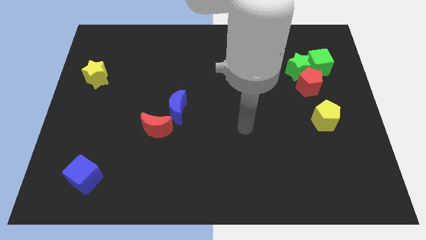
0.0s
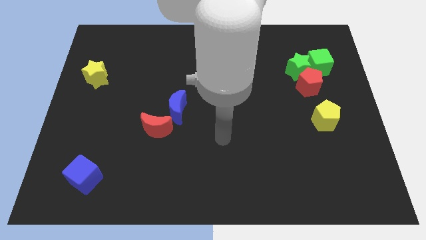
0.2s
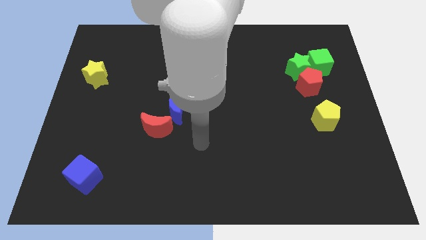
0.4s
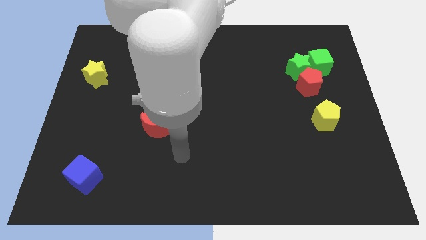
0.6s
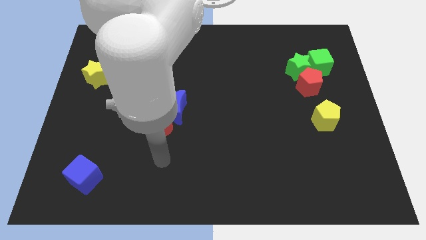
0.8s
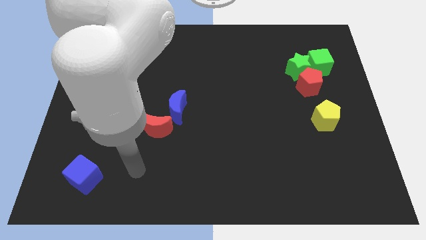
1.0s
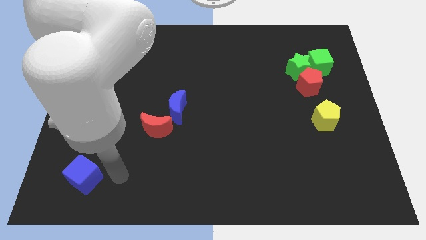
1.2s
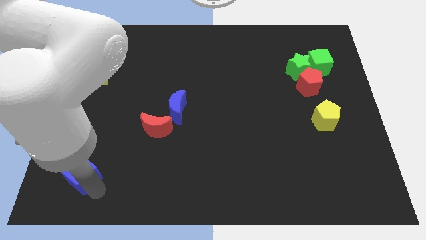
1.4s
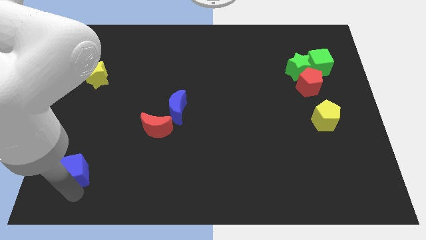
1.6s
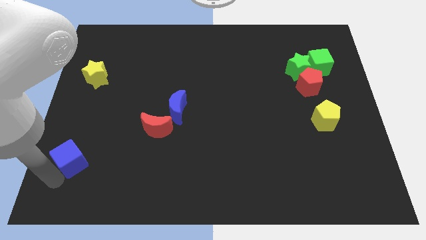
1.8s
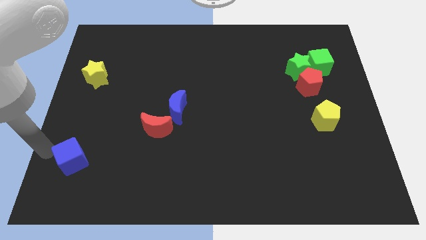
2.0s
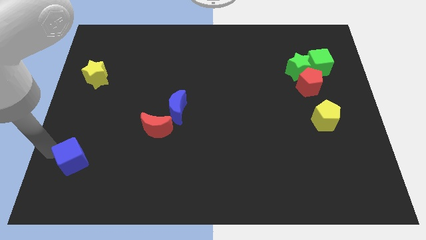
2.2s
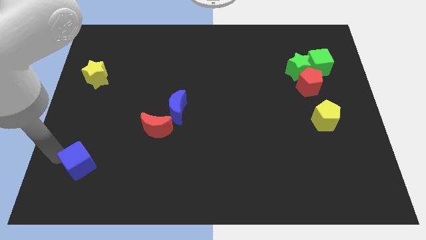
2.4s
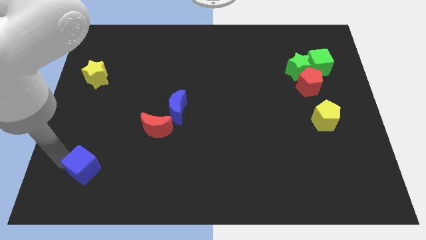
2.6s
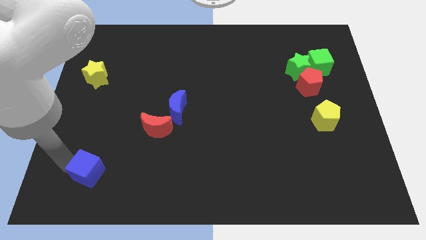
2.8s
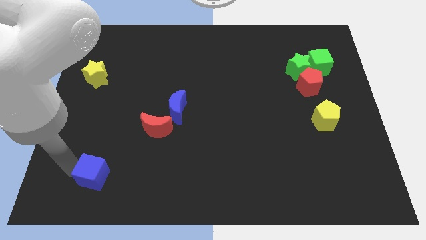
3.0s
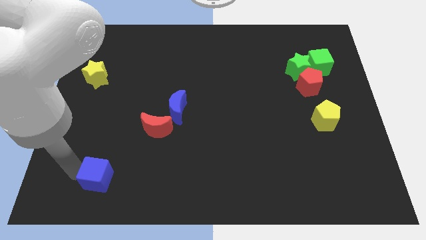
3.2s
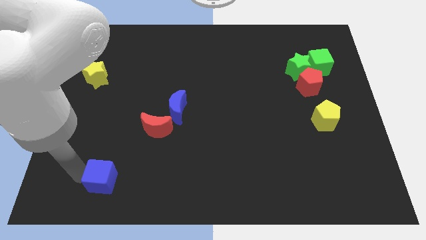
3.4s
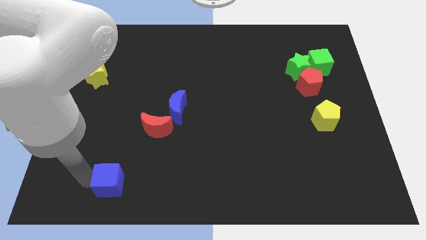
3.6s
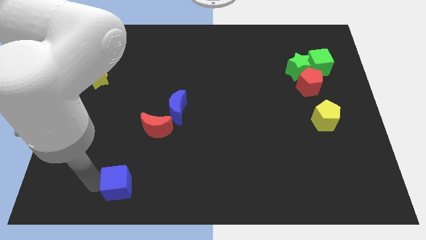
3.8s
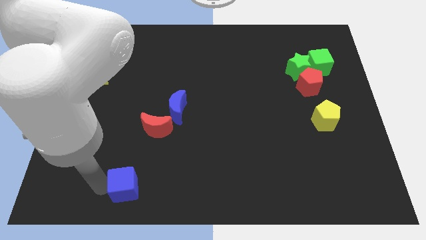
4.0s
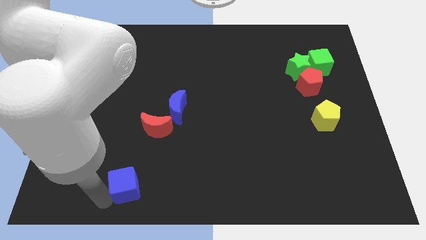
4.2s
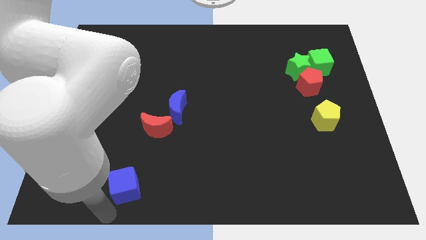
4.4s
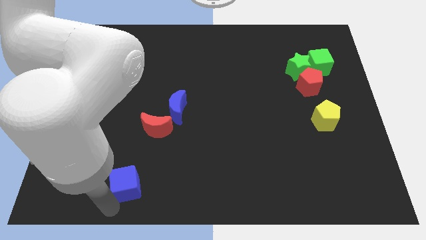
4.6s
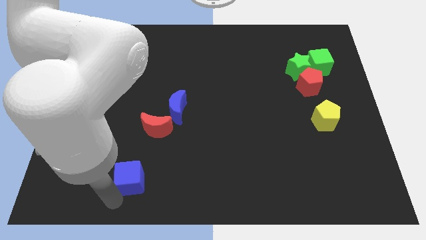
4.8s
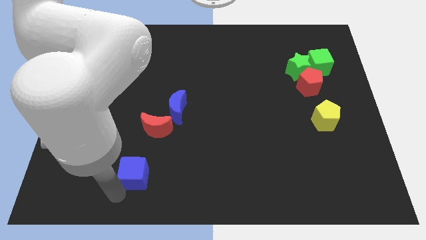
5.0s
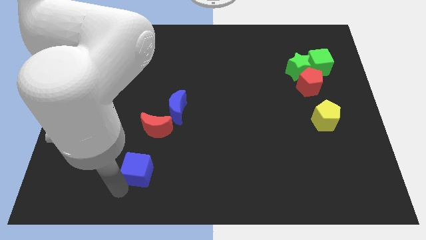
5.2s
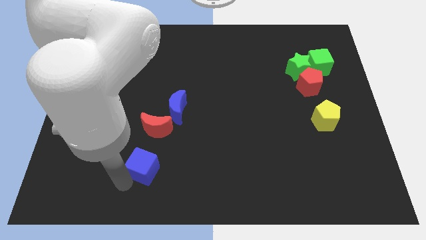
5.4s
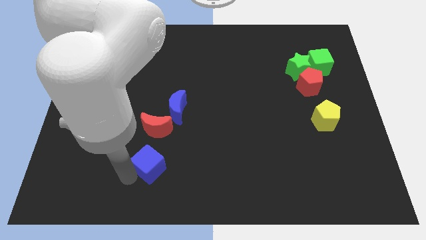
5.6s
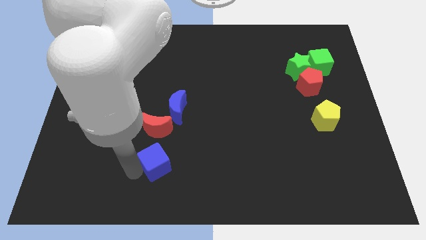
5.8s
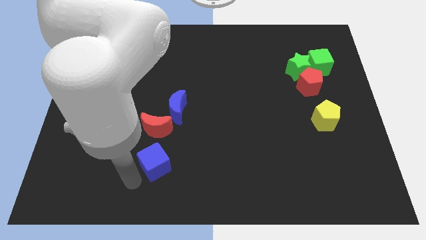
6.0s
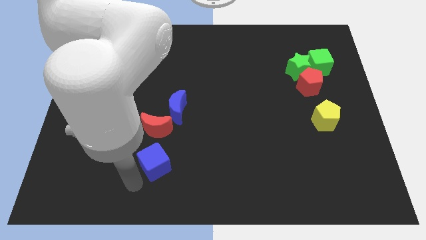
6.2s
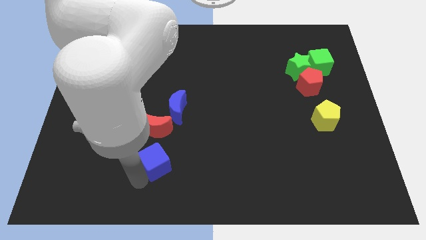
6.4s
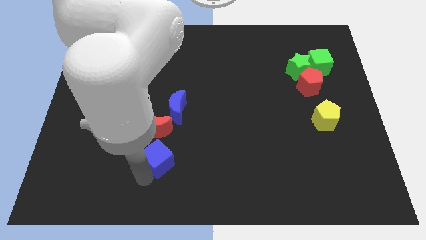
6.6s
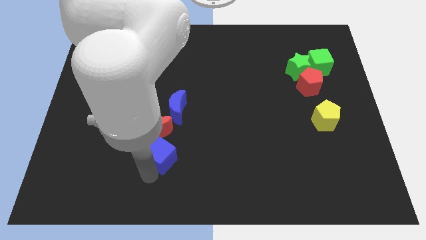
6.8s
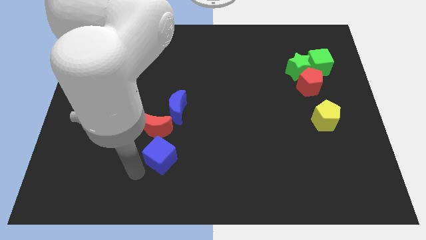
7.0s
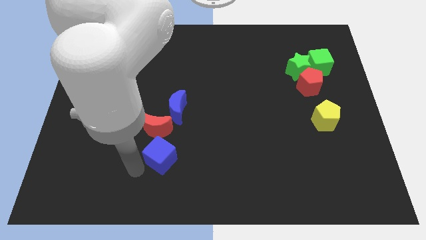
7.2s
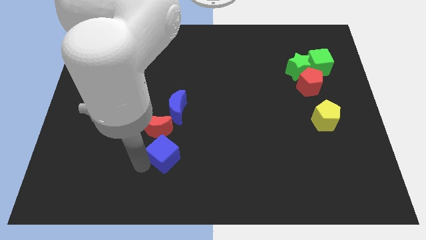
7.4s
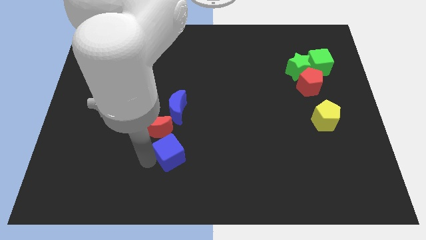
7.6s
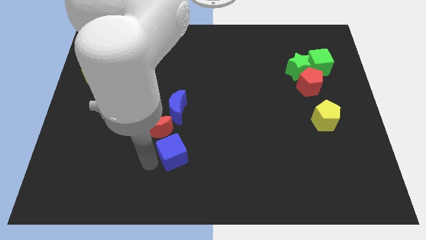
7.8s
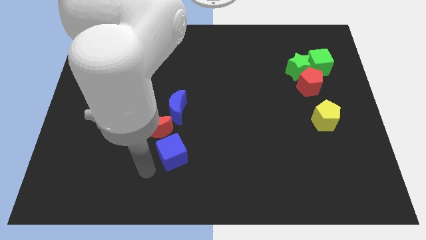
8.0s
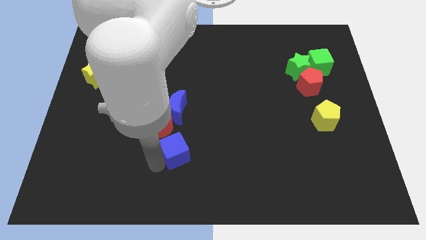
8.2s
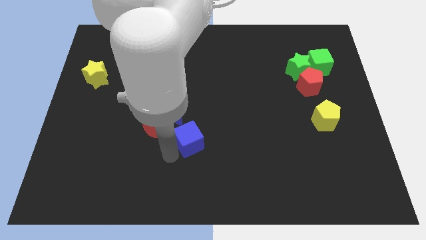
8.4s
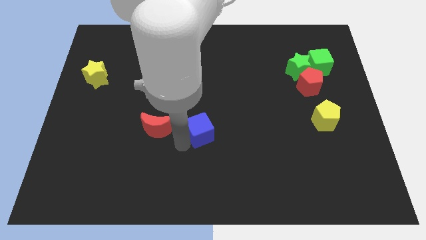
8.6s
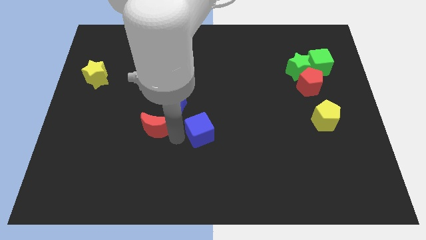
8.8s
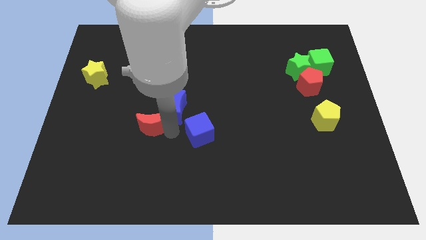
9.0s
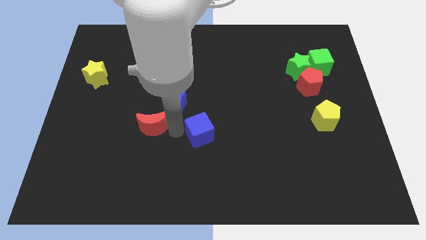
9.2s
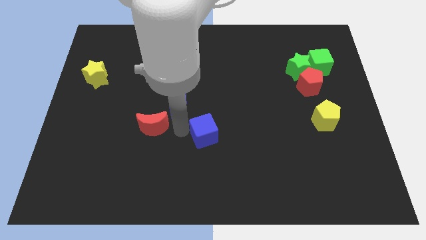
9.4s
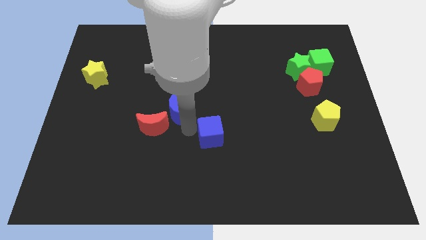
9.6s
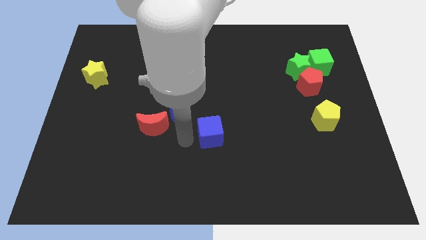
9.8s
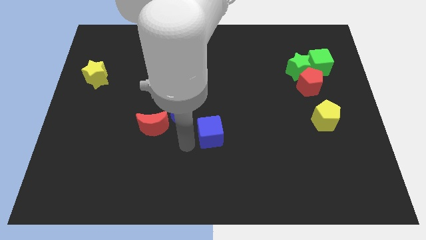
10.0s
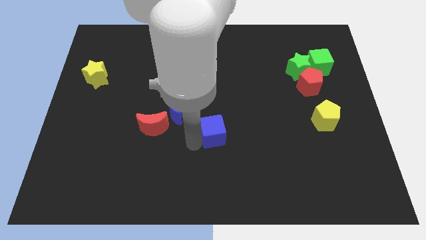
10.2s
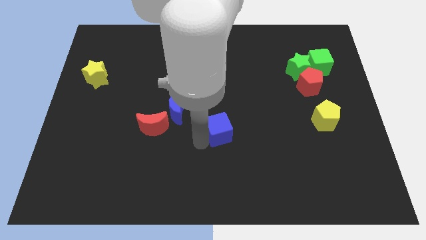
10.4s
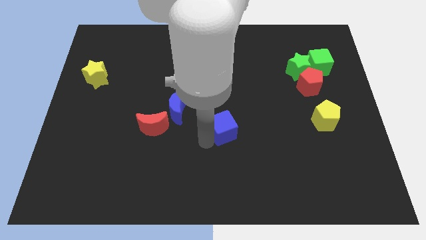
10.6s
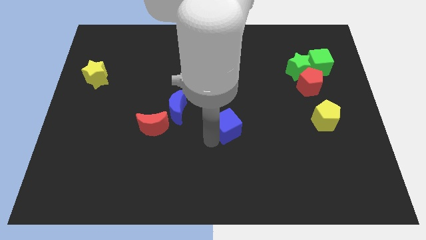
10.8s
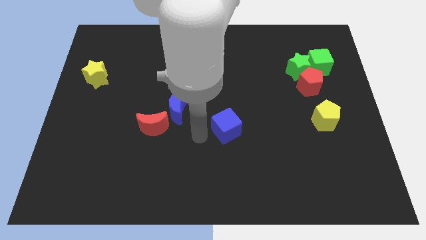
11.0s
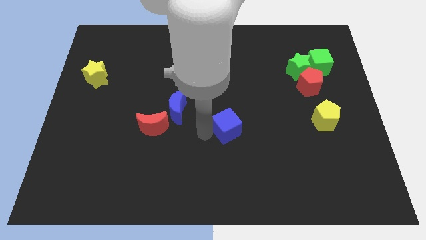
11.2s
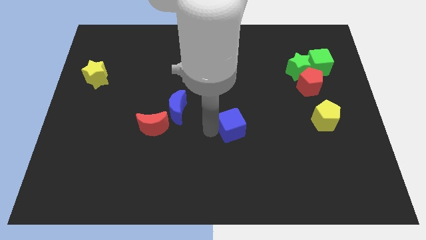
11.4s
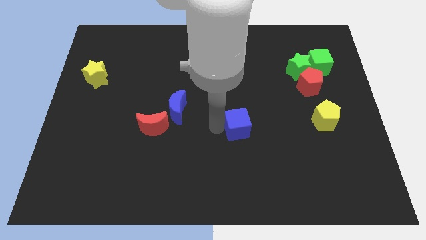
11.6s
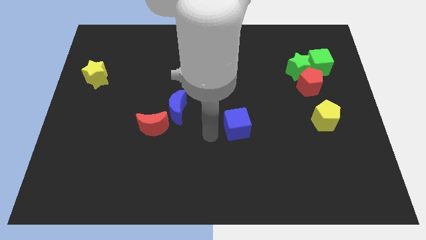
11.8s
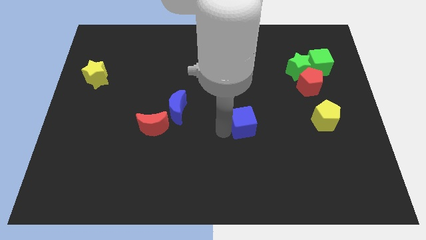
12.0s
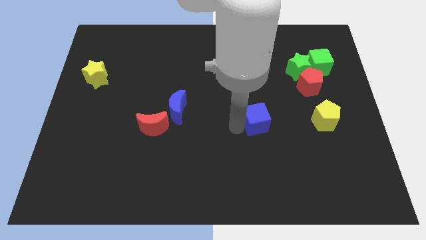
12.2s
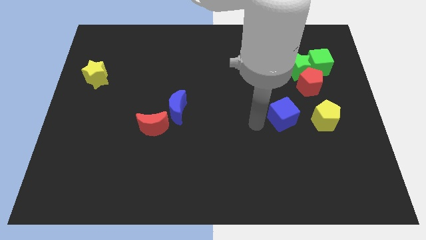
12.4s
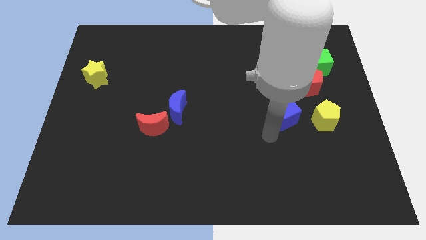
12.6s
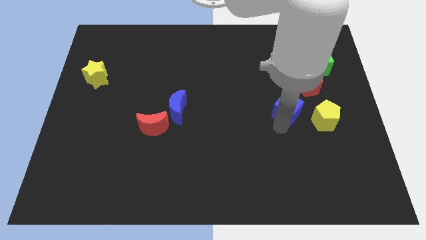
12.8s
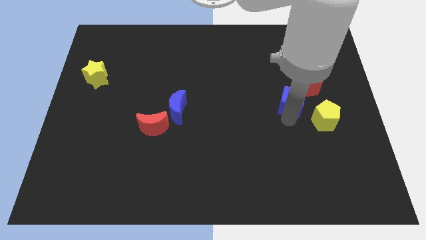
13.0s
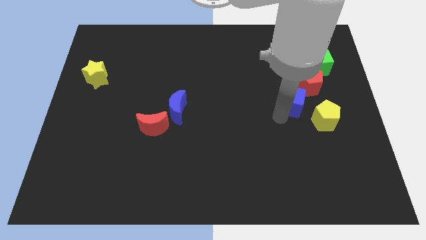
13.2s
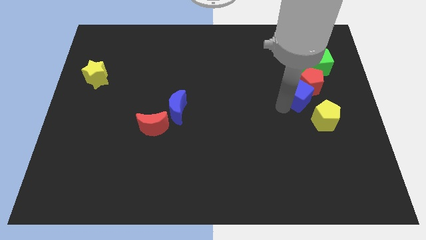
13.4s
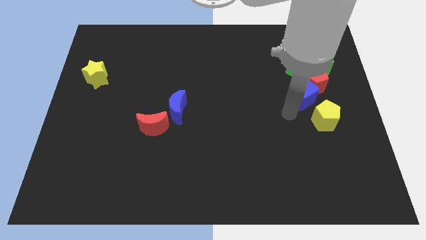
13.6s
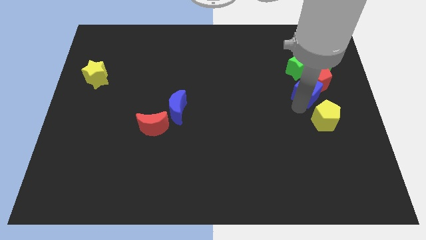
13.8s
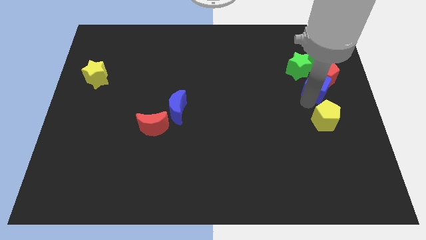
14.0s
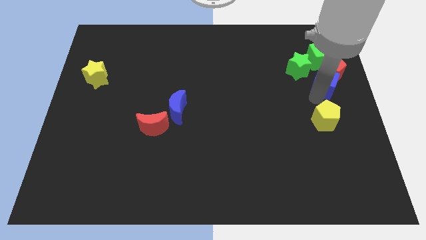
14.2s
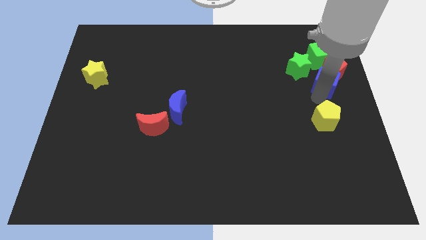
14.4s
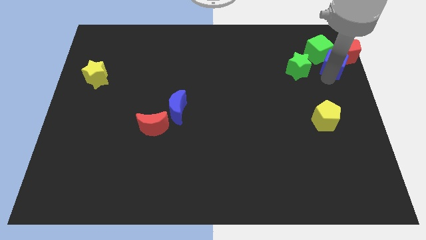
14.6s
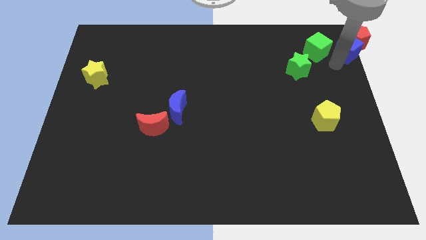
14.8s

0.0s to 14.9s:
slide the blue cube to the top right
